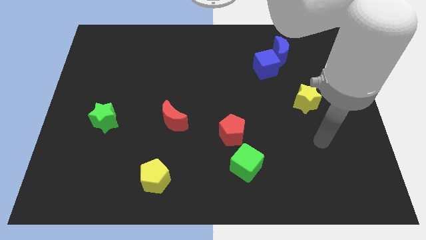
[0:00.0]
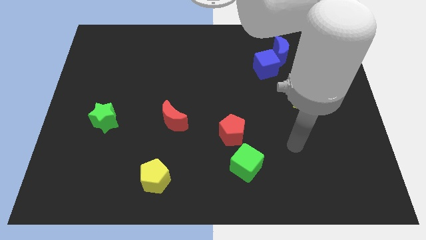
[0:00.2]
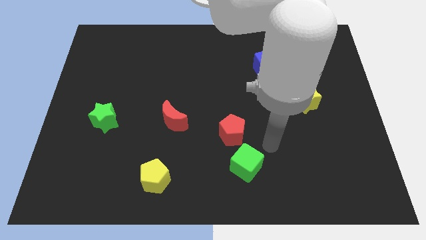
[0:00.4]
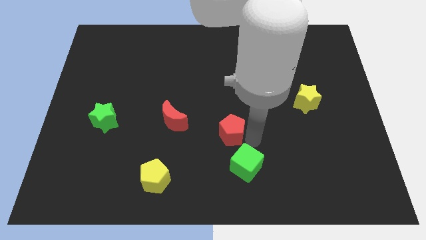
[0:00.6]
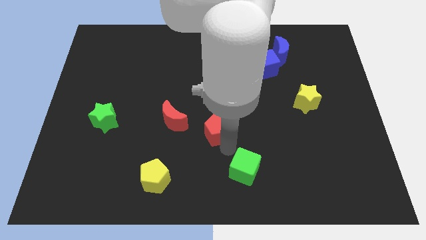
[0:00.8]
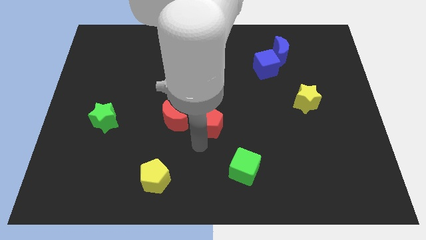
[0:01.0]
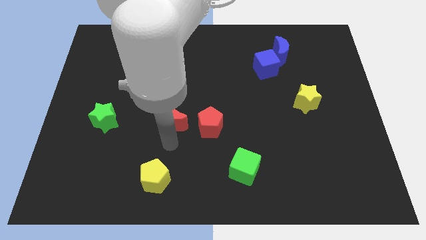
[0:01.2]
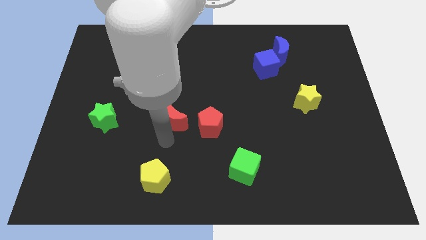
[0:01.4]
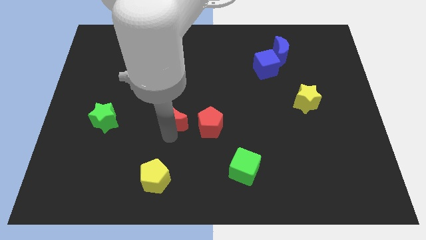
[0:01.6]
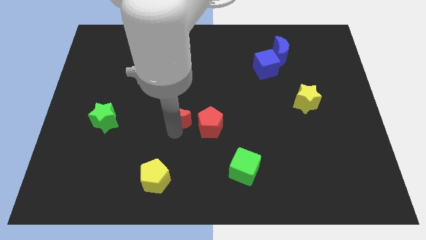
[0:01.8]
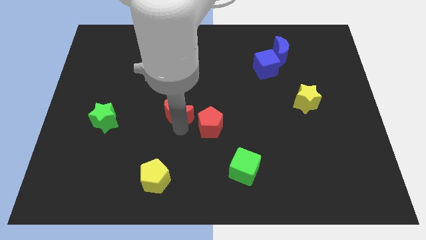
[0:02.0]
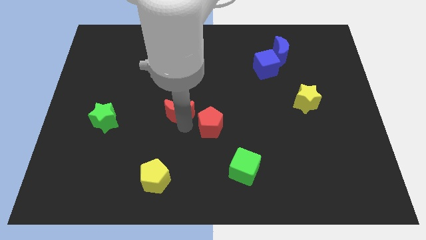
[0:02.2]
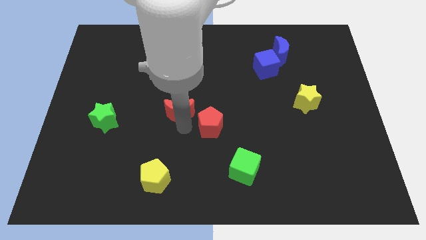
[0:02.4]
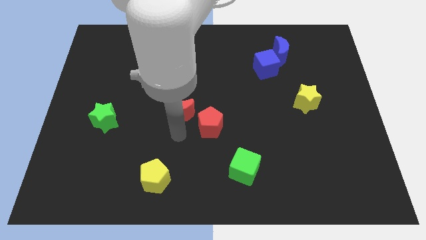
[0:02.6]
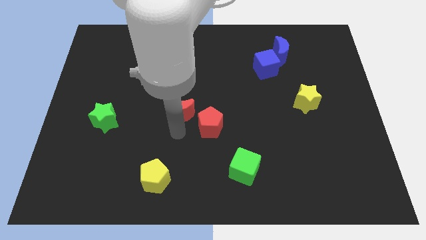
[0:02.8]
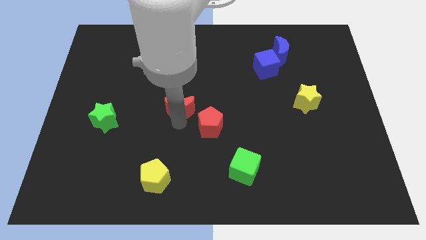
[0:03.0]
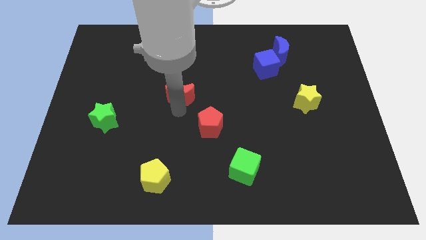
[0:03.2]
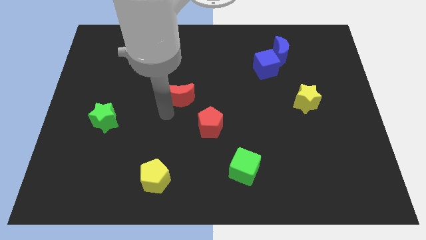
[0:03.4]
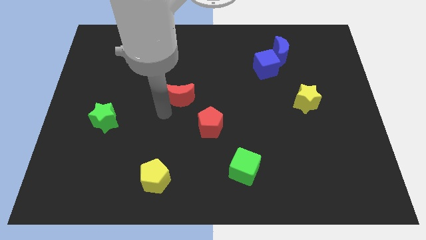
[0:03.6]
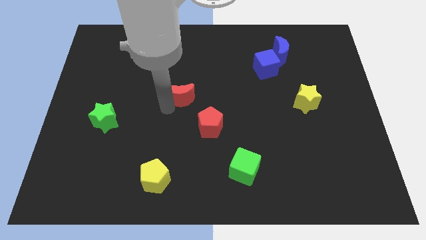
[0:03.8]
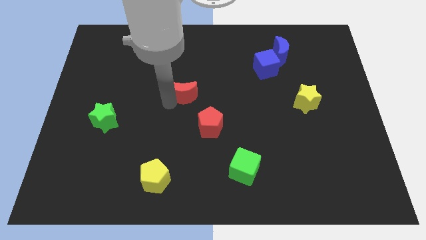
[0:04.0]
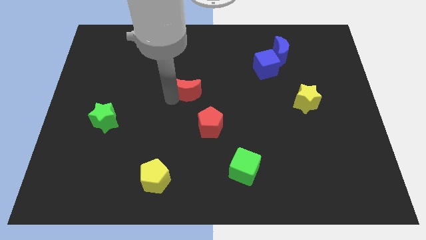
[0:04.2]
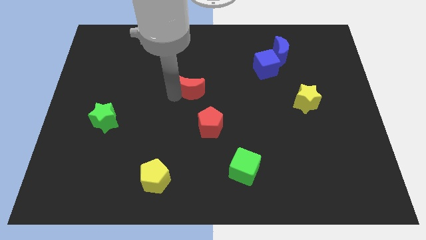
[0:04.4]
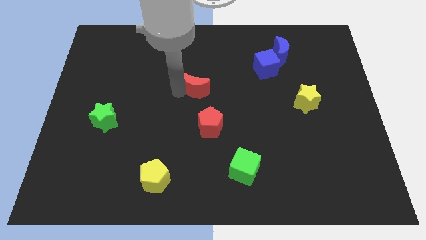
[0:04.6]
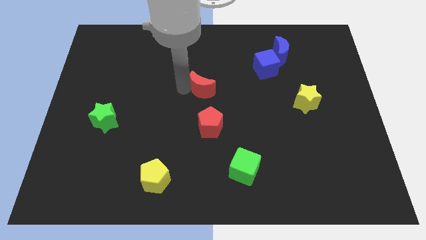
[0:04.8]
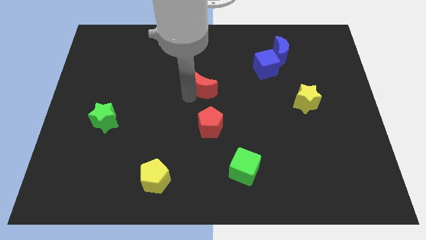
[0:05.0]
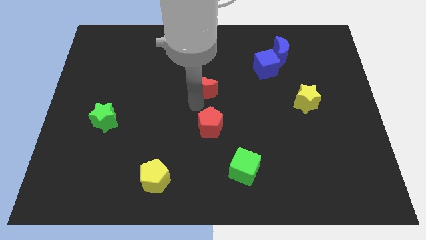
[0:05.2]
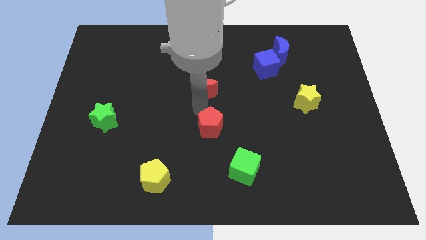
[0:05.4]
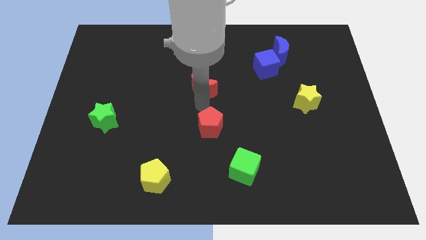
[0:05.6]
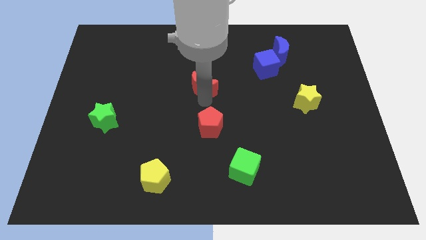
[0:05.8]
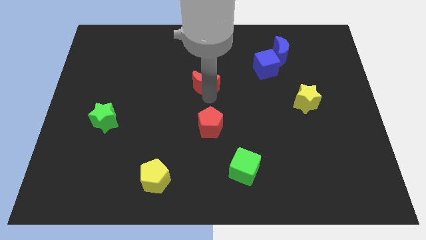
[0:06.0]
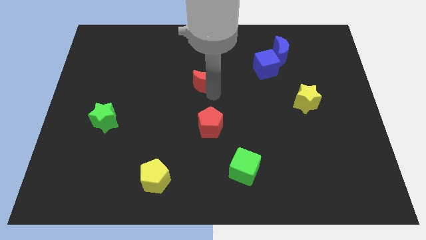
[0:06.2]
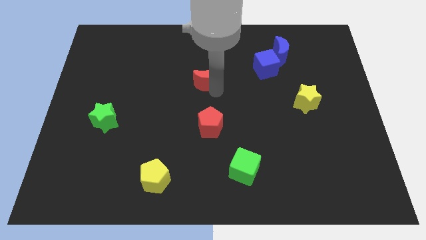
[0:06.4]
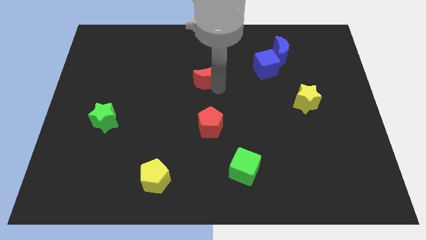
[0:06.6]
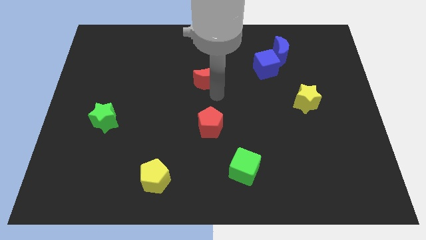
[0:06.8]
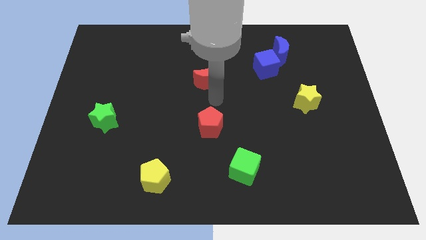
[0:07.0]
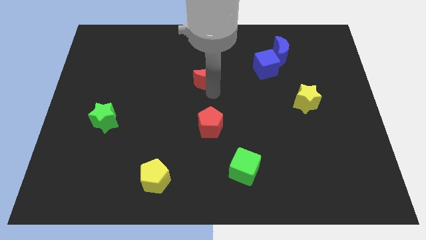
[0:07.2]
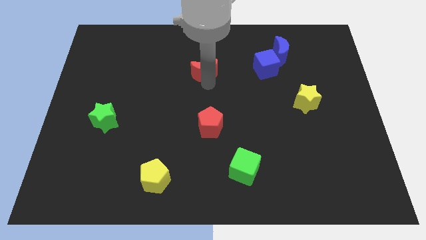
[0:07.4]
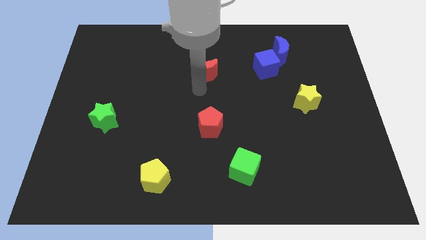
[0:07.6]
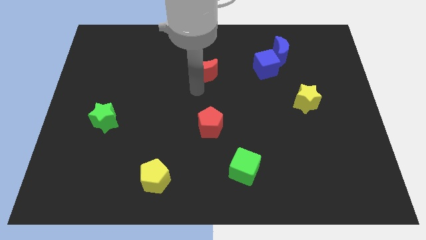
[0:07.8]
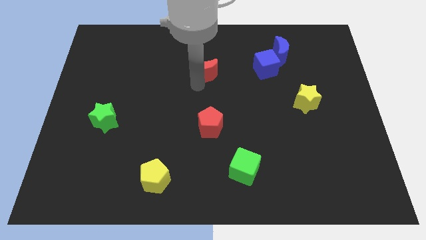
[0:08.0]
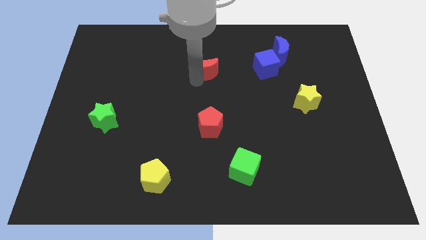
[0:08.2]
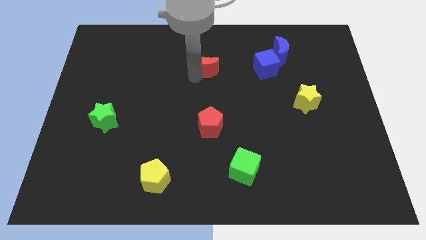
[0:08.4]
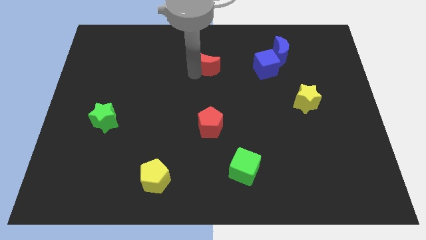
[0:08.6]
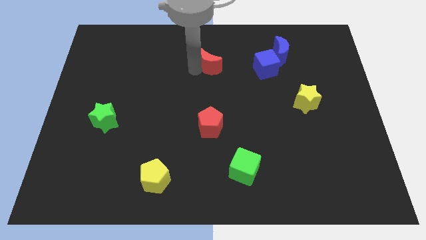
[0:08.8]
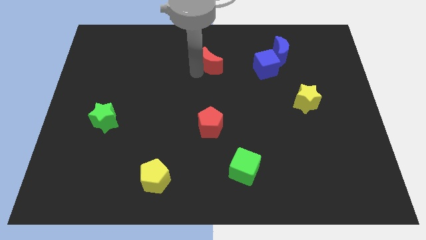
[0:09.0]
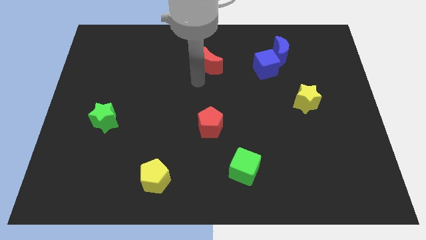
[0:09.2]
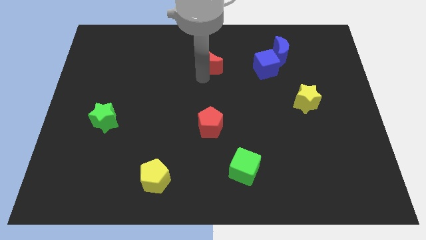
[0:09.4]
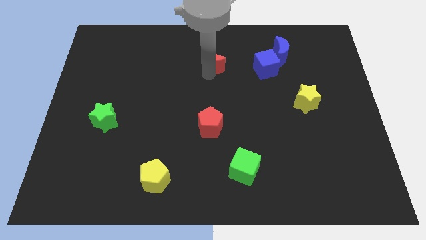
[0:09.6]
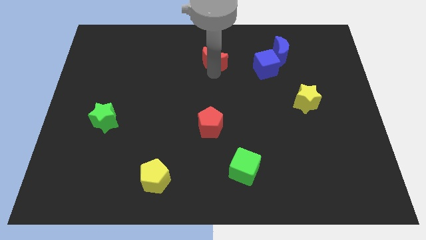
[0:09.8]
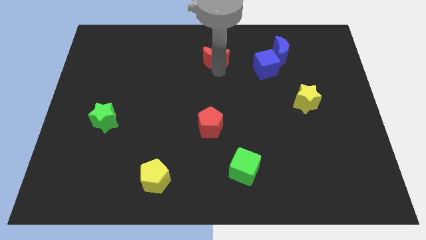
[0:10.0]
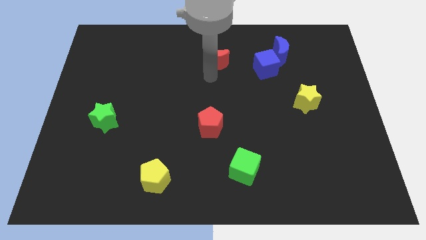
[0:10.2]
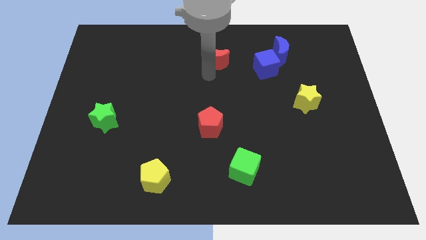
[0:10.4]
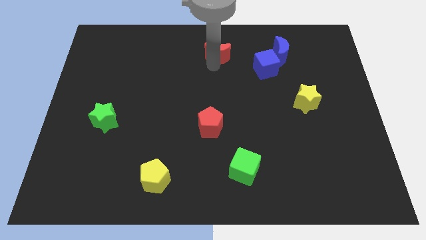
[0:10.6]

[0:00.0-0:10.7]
slide the red moon to the top side

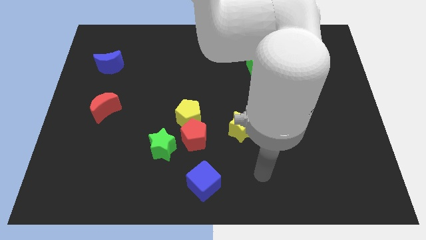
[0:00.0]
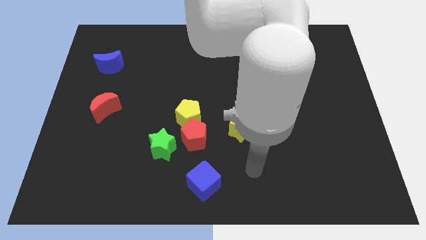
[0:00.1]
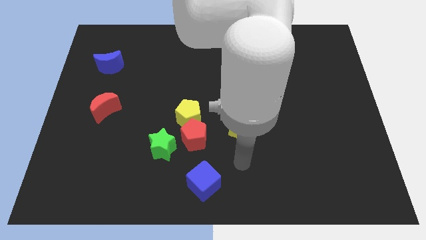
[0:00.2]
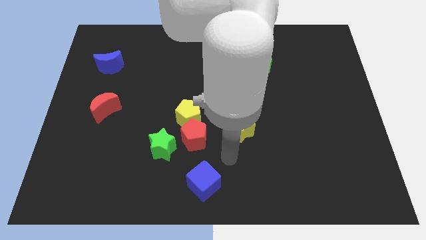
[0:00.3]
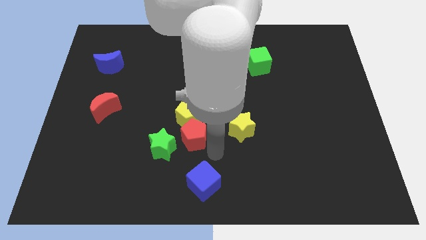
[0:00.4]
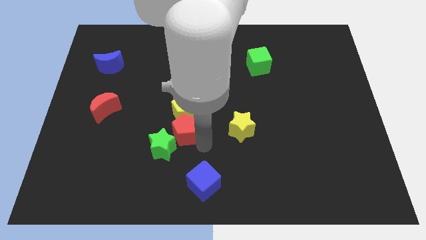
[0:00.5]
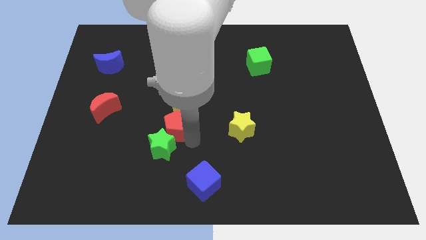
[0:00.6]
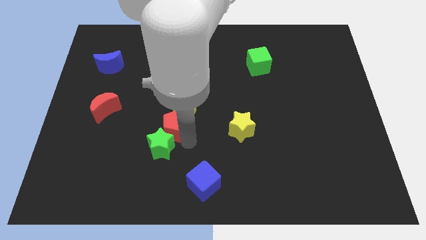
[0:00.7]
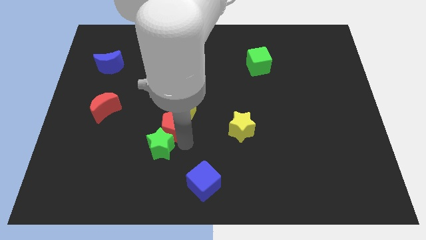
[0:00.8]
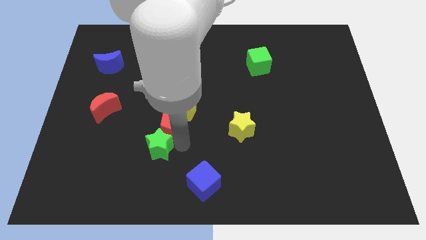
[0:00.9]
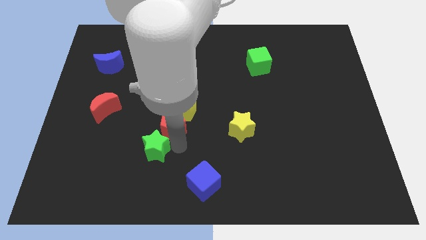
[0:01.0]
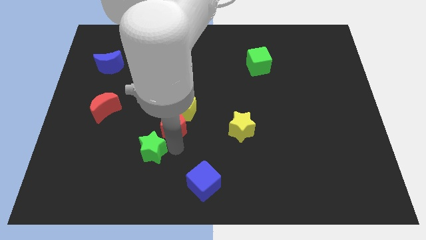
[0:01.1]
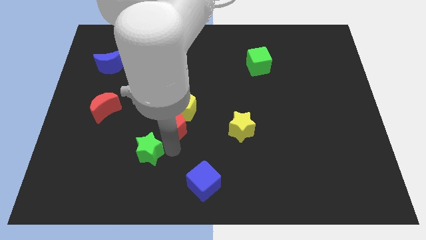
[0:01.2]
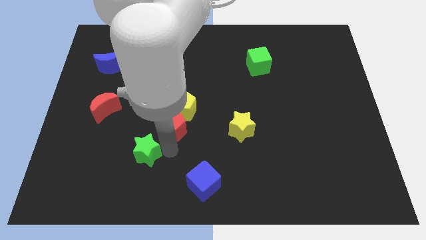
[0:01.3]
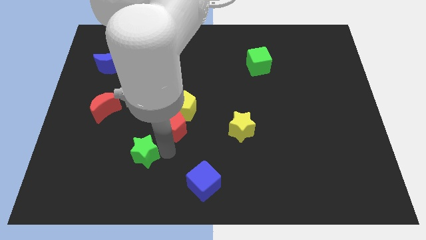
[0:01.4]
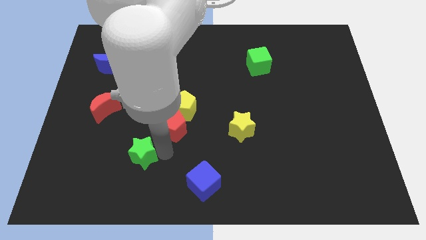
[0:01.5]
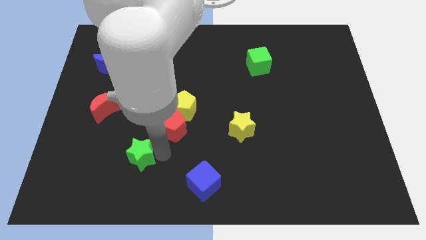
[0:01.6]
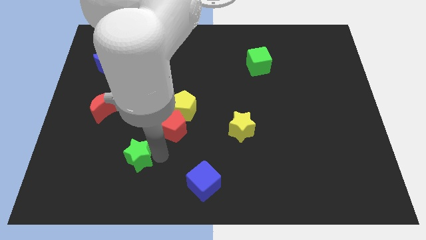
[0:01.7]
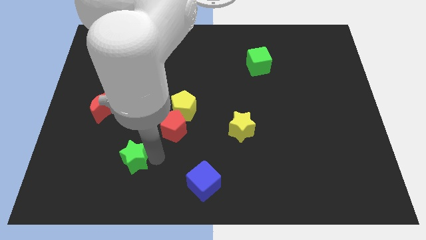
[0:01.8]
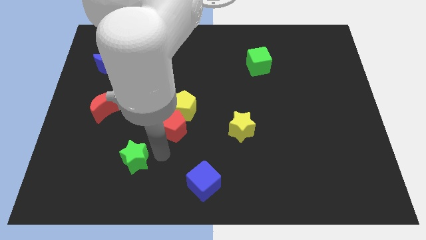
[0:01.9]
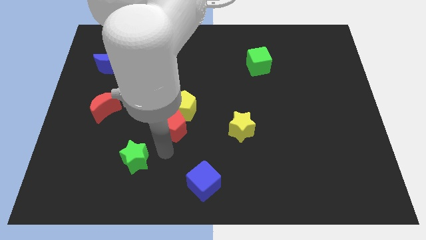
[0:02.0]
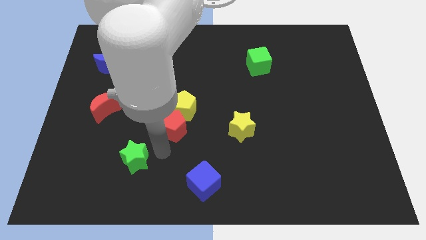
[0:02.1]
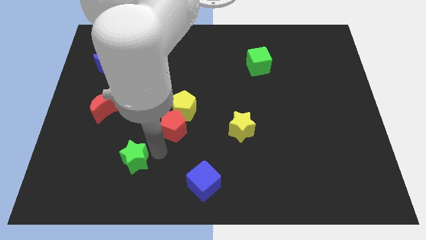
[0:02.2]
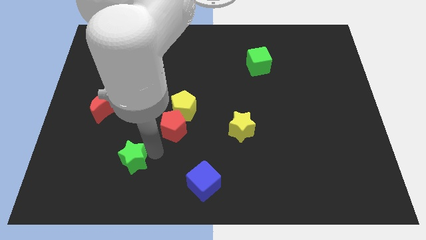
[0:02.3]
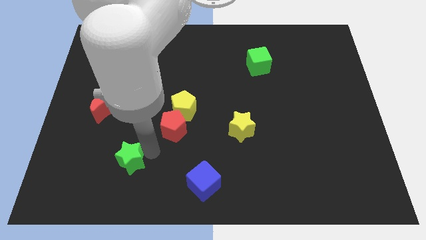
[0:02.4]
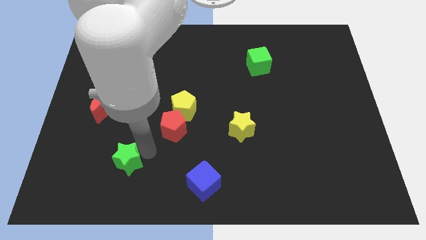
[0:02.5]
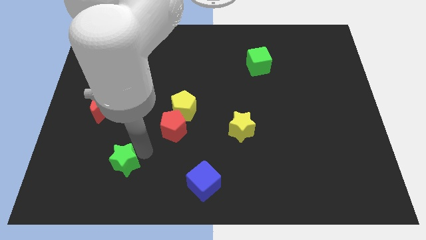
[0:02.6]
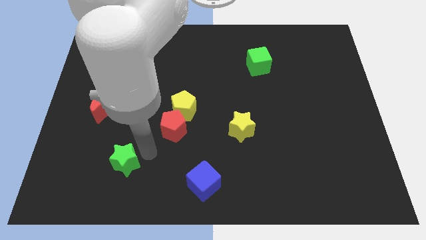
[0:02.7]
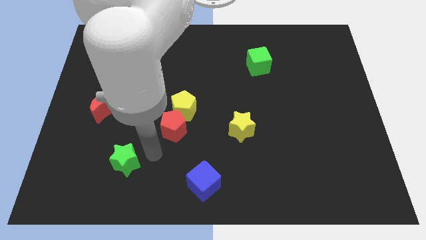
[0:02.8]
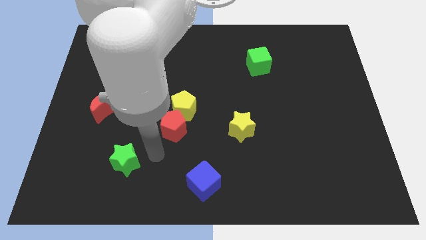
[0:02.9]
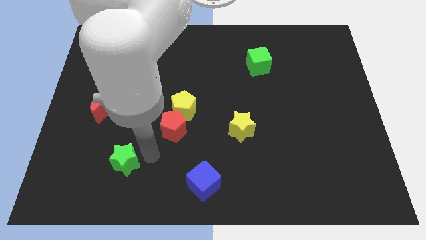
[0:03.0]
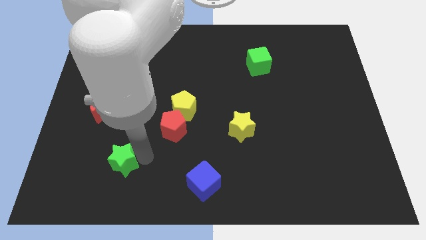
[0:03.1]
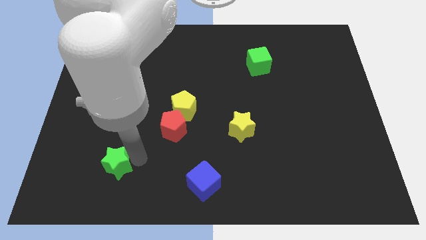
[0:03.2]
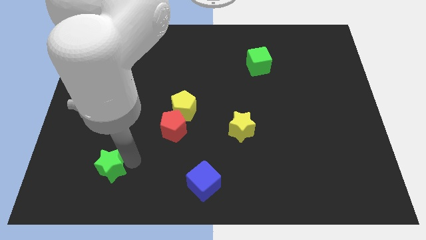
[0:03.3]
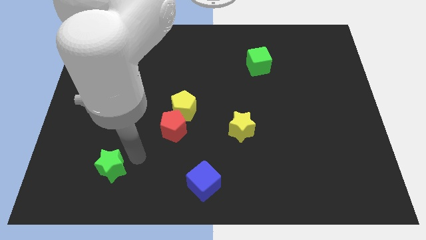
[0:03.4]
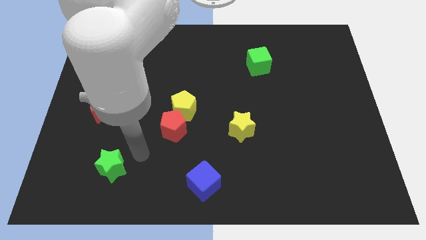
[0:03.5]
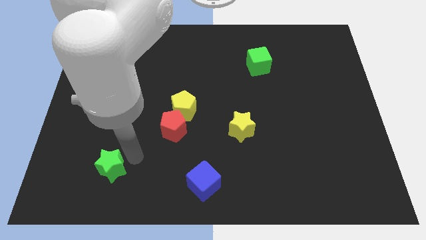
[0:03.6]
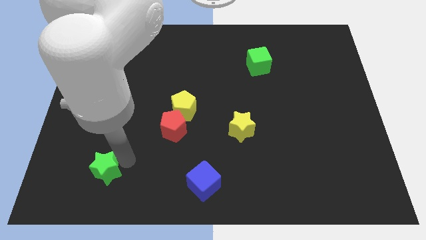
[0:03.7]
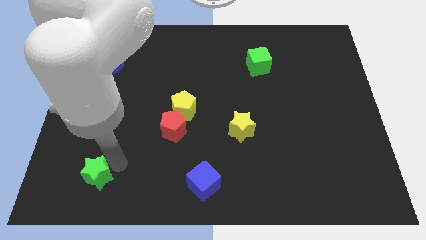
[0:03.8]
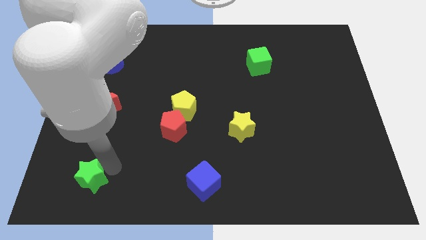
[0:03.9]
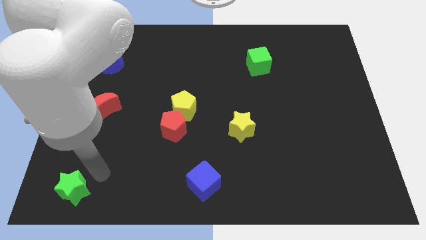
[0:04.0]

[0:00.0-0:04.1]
put the green star to the lower left corner
